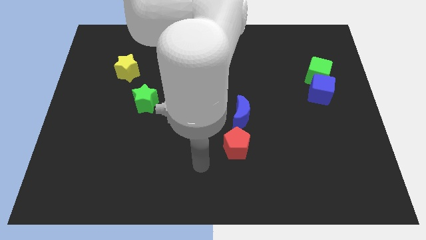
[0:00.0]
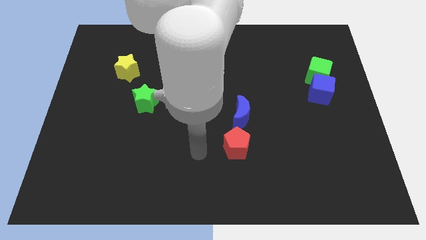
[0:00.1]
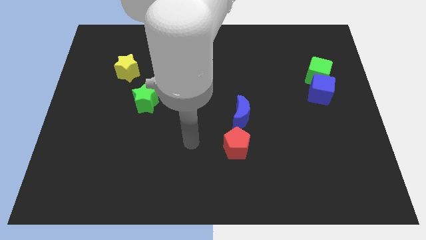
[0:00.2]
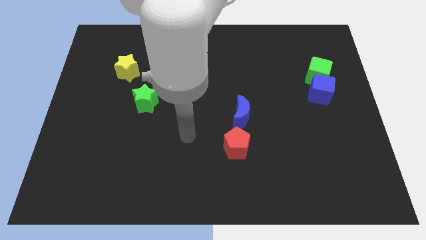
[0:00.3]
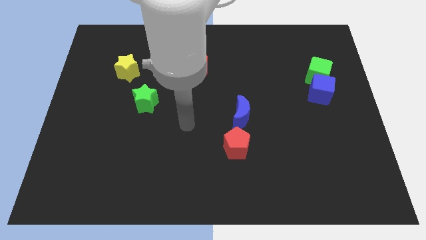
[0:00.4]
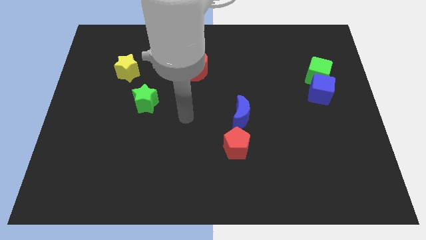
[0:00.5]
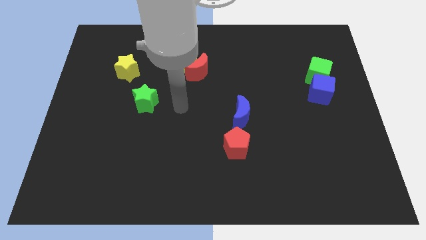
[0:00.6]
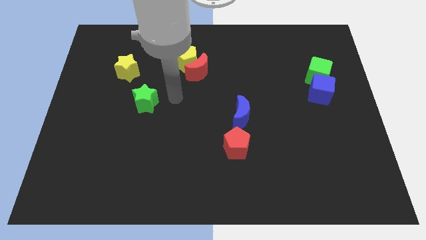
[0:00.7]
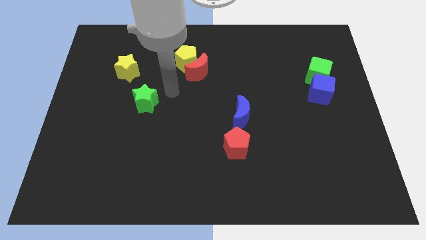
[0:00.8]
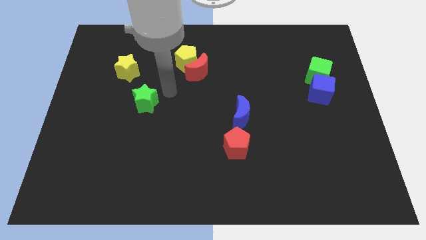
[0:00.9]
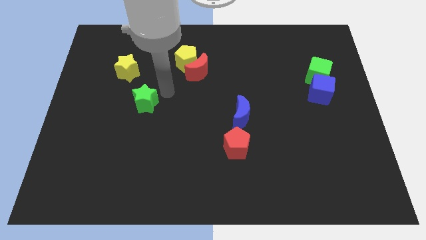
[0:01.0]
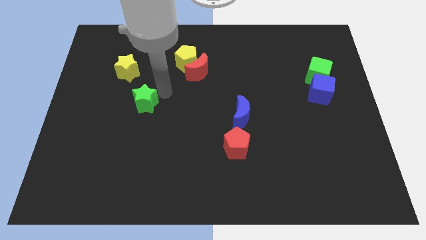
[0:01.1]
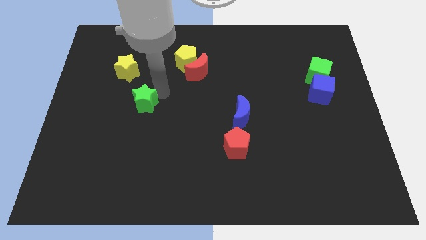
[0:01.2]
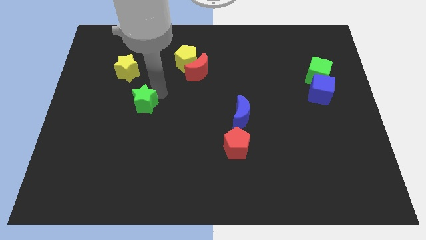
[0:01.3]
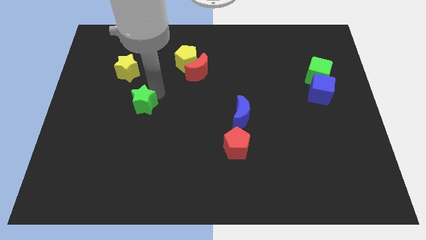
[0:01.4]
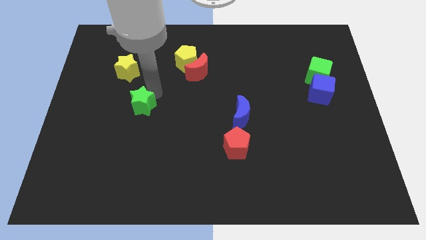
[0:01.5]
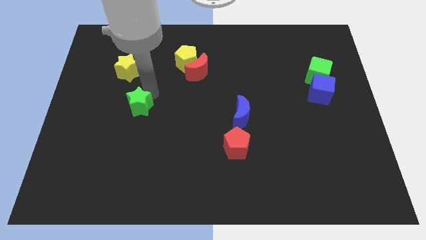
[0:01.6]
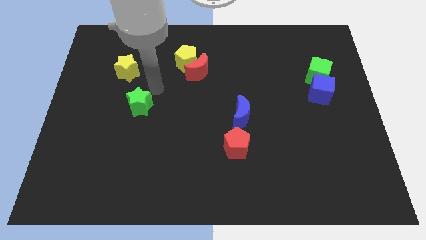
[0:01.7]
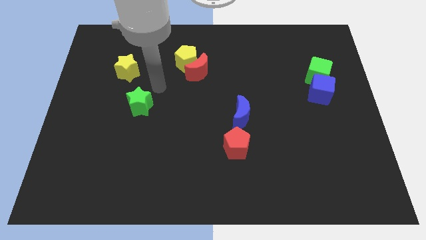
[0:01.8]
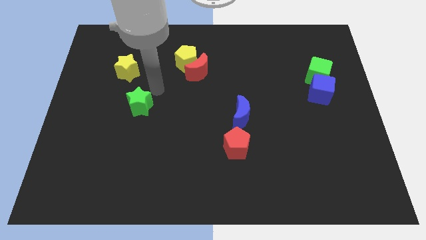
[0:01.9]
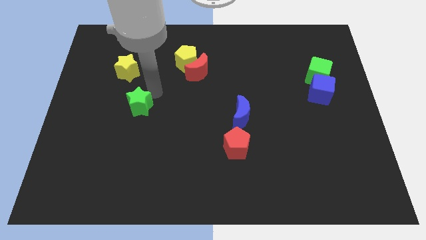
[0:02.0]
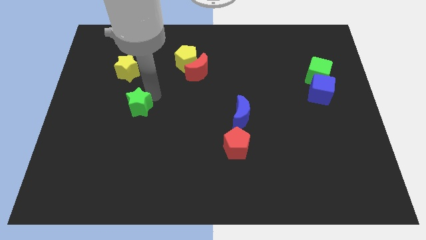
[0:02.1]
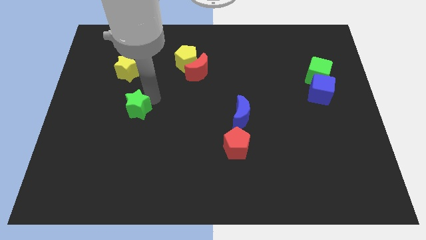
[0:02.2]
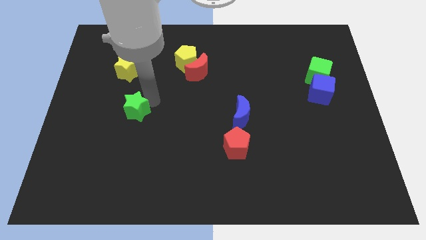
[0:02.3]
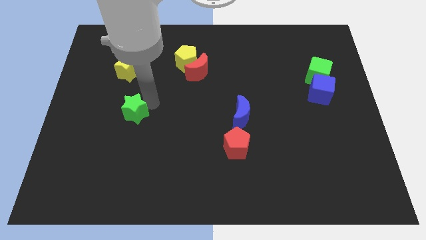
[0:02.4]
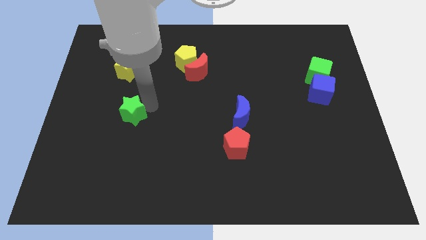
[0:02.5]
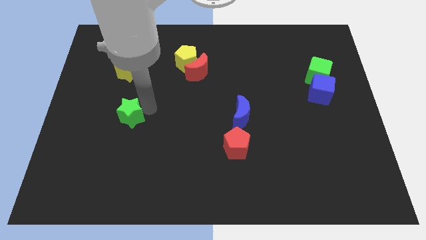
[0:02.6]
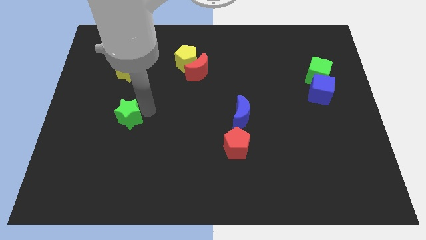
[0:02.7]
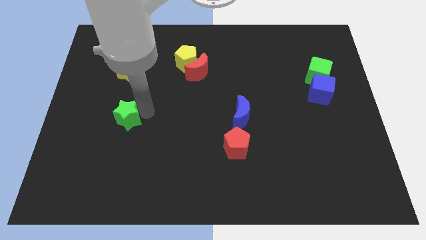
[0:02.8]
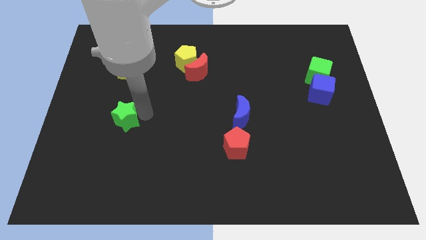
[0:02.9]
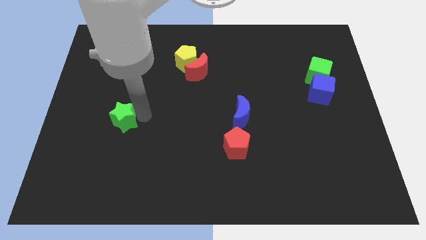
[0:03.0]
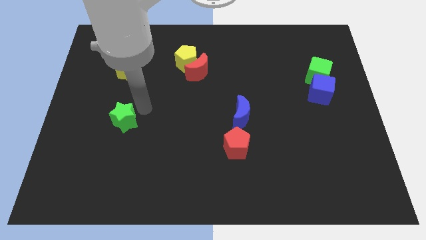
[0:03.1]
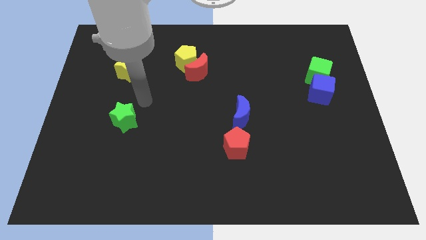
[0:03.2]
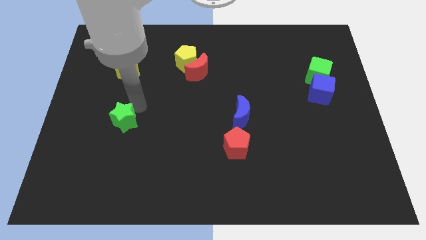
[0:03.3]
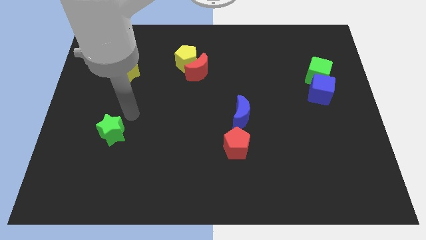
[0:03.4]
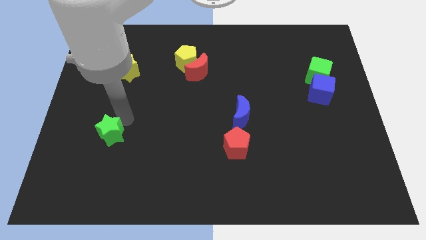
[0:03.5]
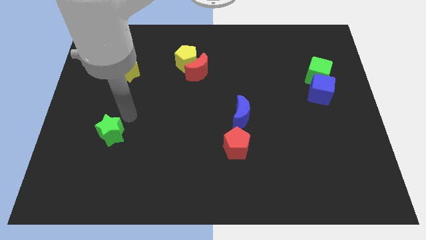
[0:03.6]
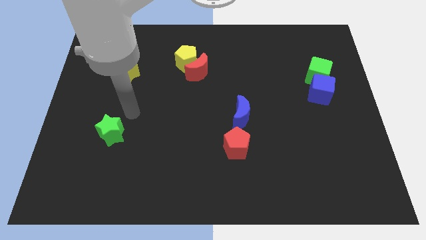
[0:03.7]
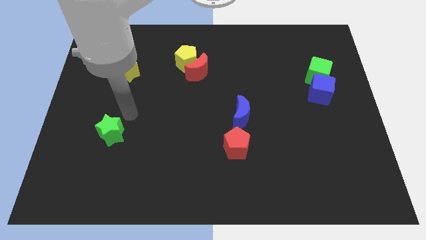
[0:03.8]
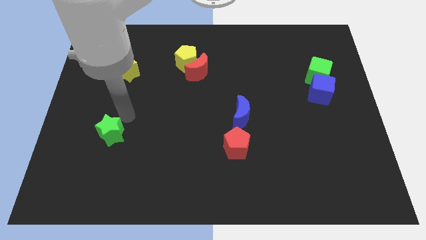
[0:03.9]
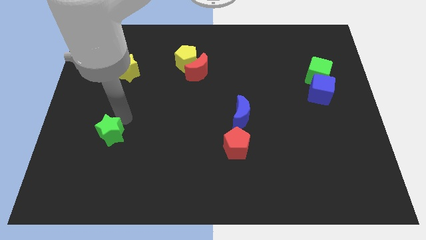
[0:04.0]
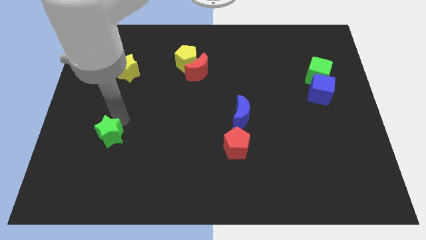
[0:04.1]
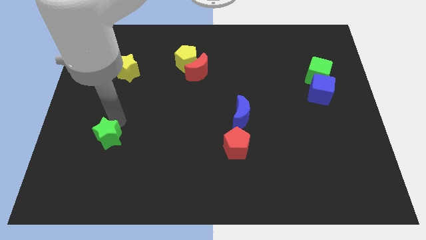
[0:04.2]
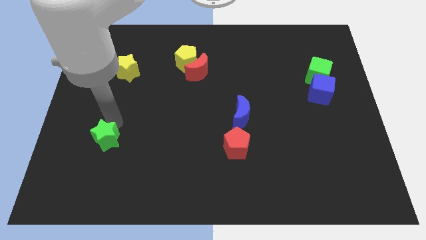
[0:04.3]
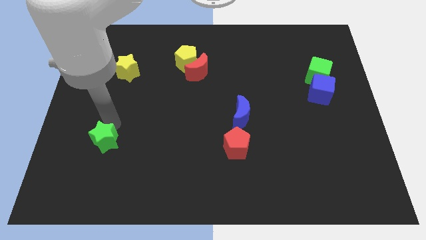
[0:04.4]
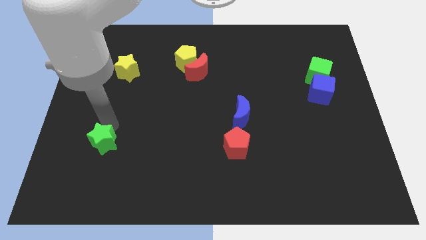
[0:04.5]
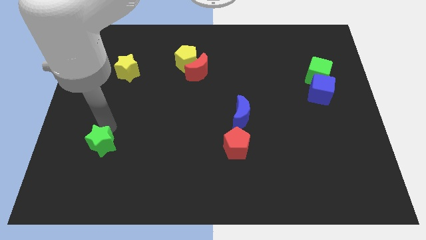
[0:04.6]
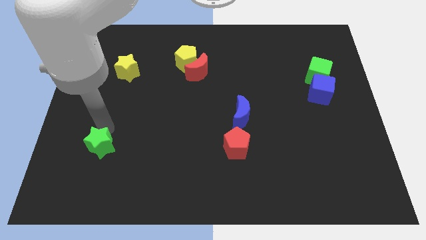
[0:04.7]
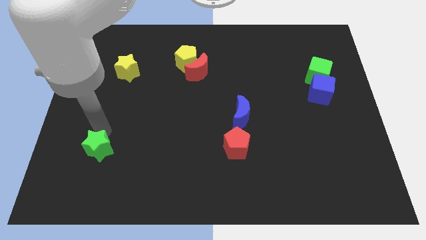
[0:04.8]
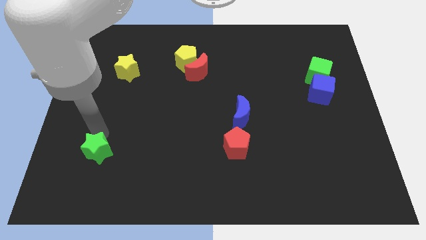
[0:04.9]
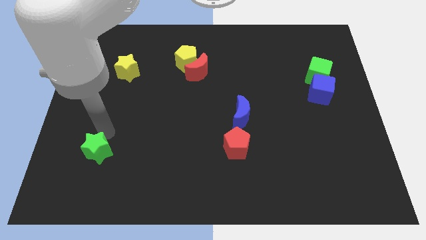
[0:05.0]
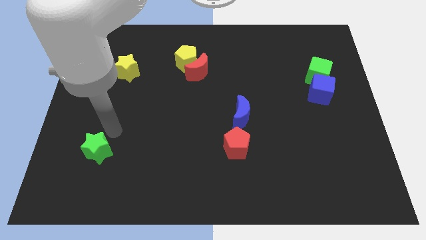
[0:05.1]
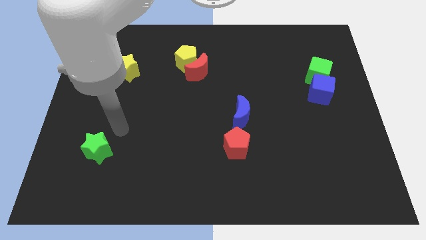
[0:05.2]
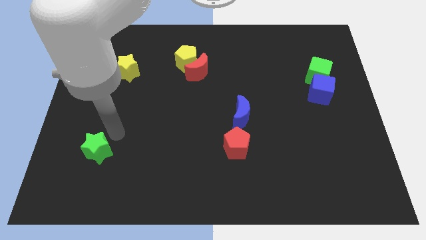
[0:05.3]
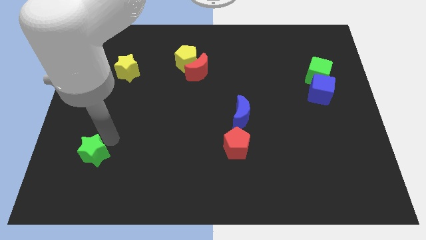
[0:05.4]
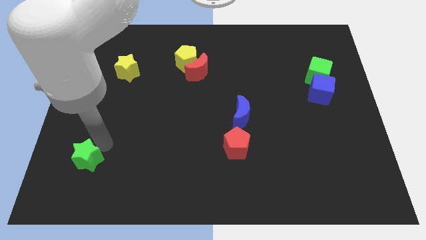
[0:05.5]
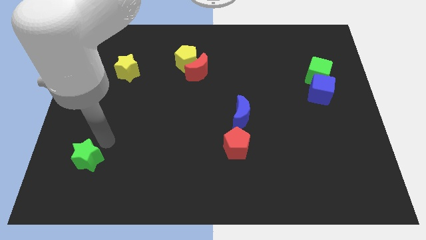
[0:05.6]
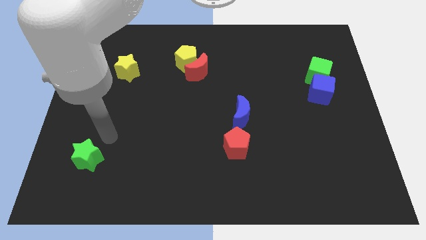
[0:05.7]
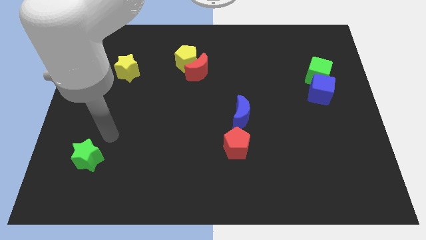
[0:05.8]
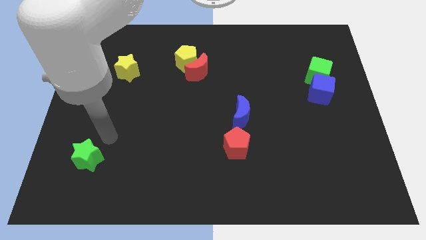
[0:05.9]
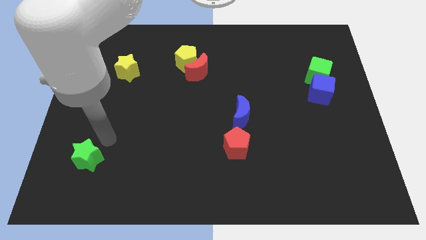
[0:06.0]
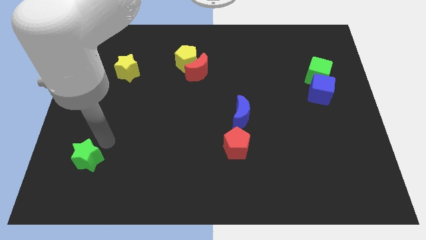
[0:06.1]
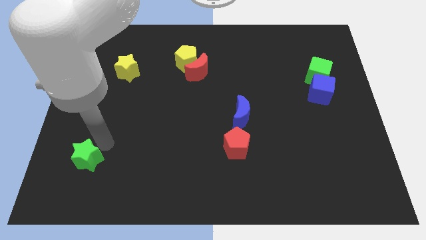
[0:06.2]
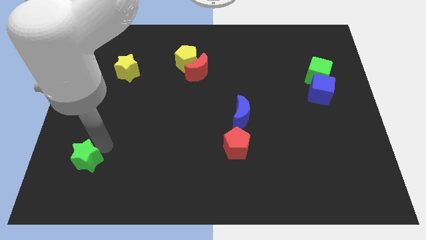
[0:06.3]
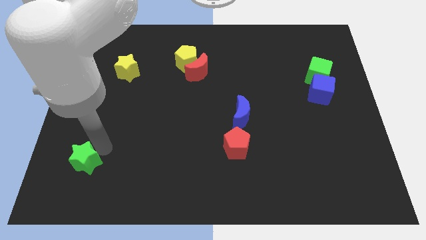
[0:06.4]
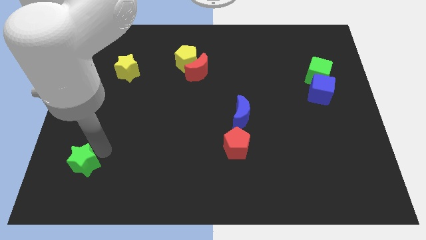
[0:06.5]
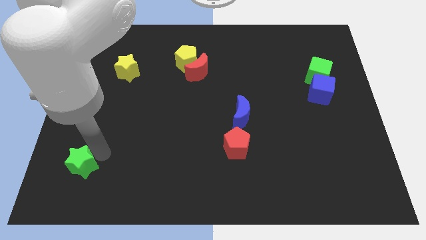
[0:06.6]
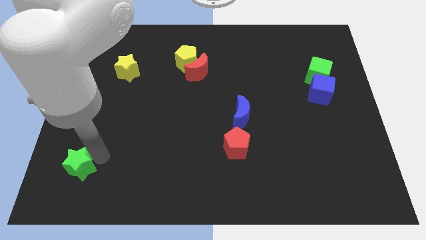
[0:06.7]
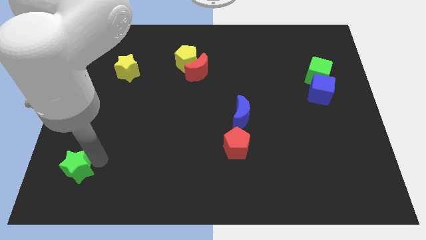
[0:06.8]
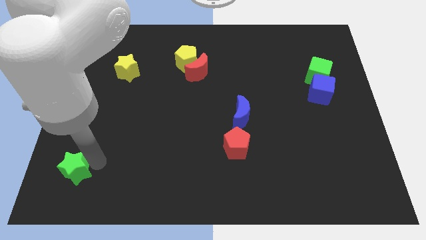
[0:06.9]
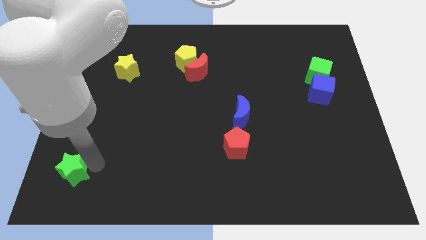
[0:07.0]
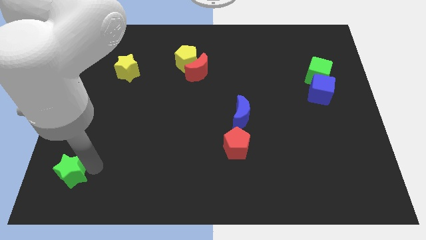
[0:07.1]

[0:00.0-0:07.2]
put the green star to the bottom left corner
